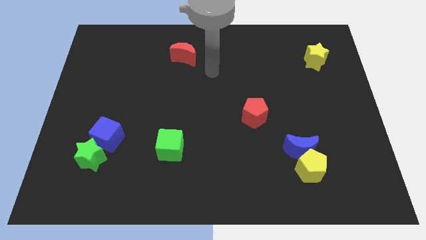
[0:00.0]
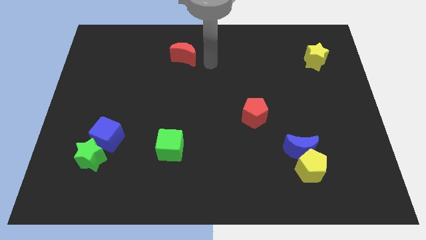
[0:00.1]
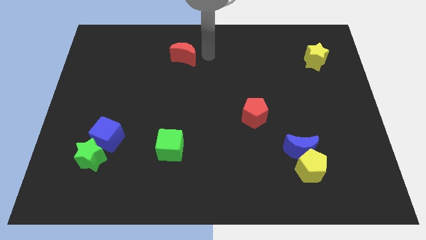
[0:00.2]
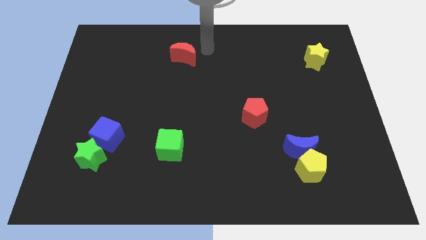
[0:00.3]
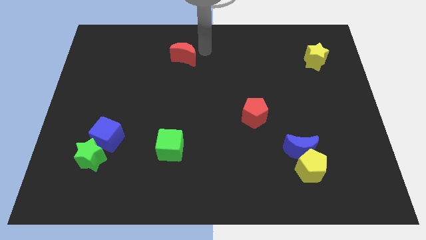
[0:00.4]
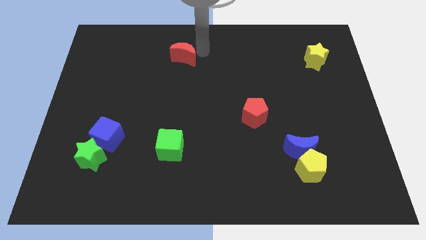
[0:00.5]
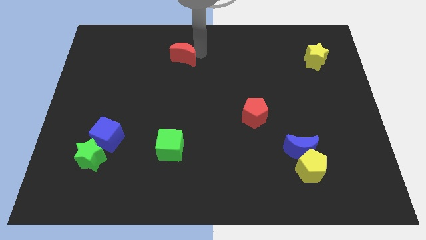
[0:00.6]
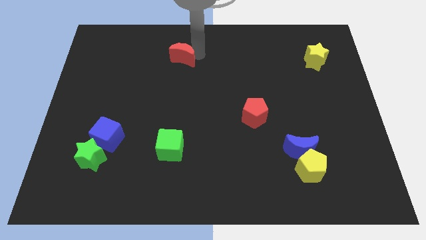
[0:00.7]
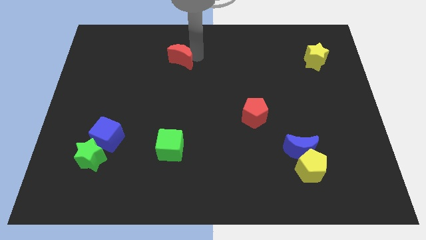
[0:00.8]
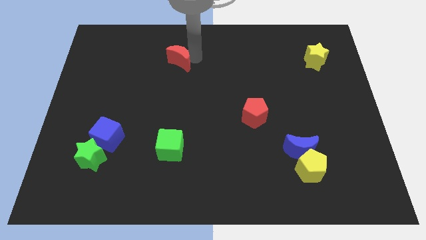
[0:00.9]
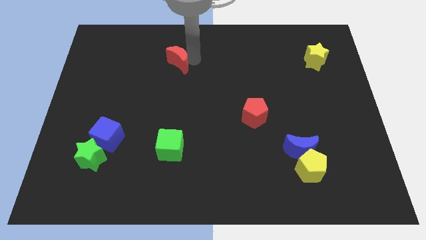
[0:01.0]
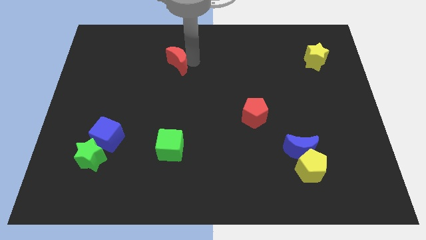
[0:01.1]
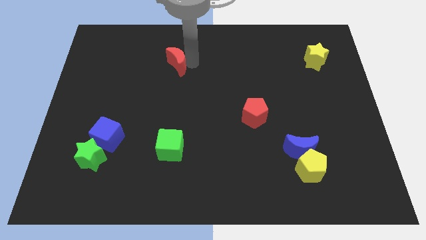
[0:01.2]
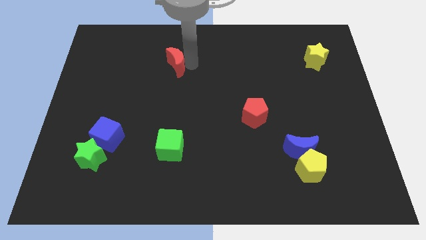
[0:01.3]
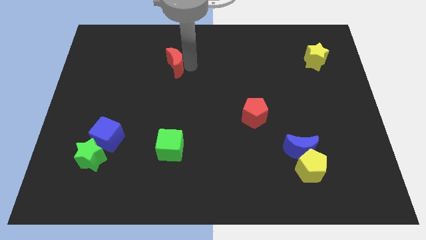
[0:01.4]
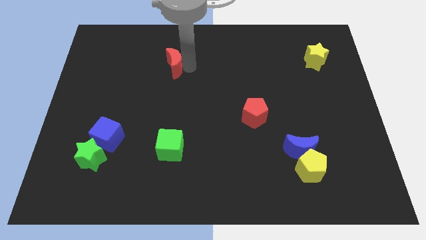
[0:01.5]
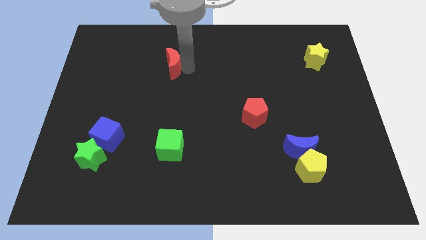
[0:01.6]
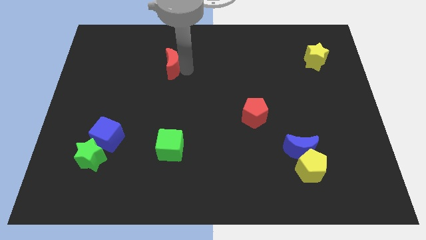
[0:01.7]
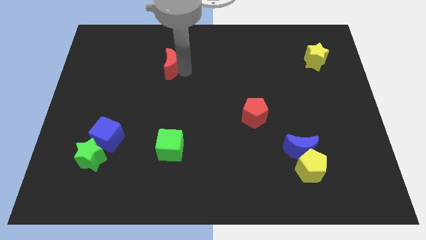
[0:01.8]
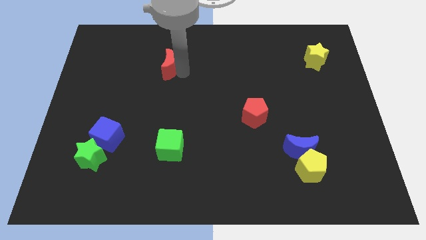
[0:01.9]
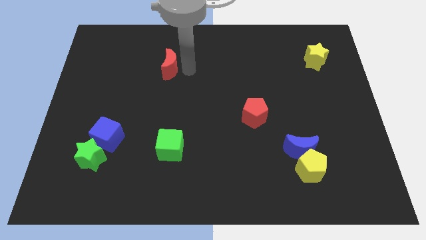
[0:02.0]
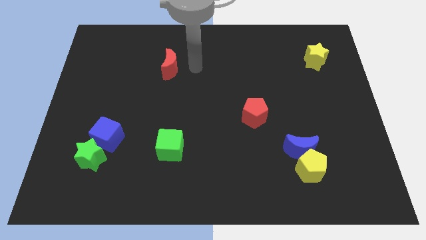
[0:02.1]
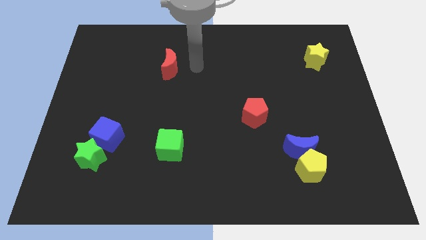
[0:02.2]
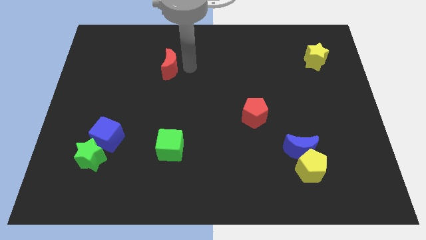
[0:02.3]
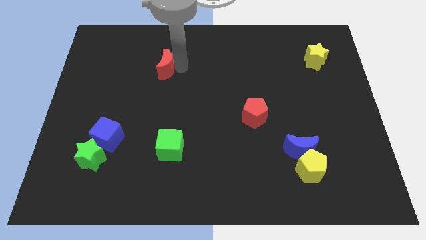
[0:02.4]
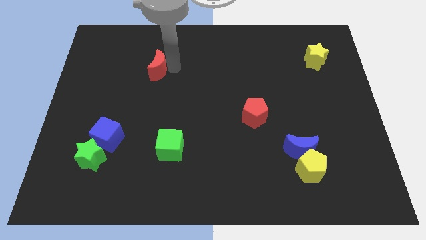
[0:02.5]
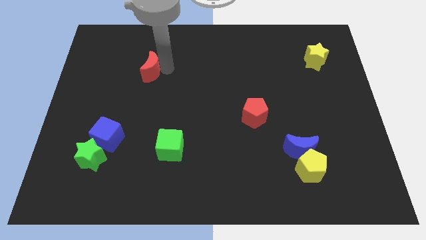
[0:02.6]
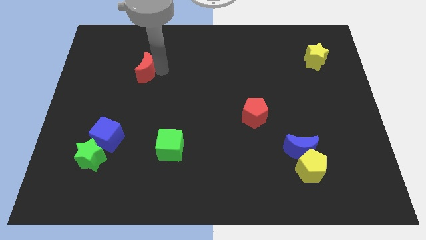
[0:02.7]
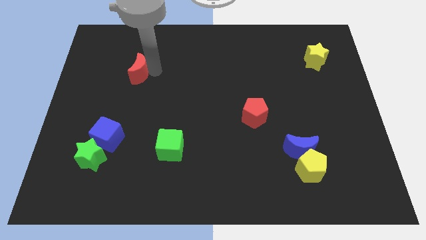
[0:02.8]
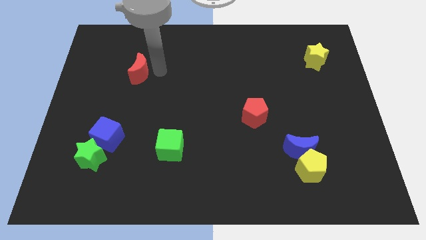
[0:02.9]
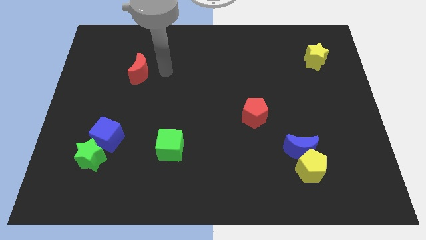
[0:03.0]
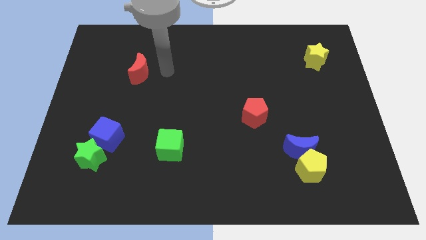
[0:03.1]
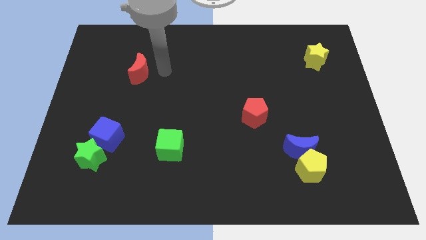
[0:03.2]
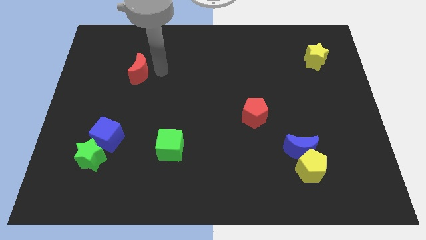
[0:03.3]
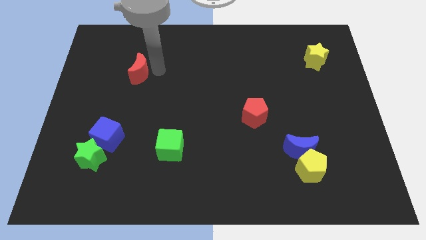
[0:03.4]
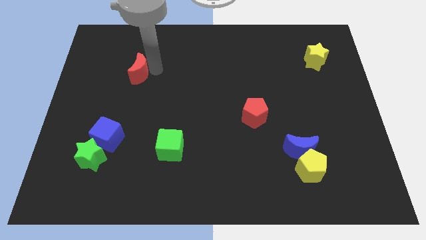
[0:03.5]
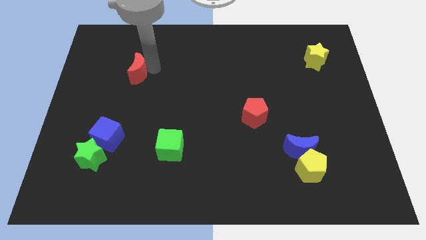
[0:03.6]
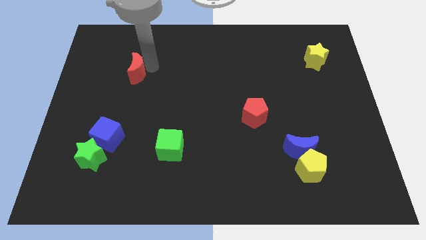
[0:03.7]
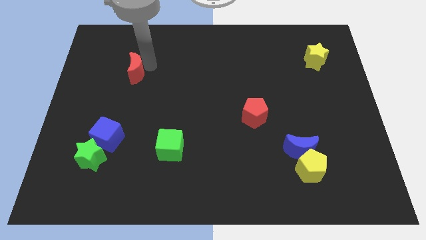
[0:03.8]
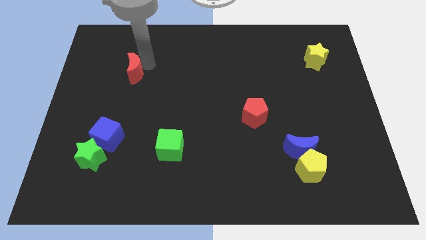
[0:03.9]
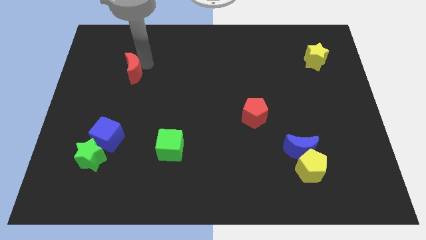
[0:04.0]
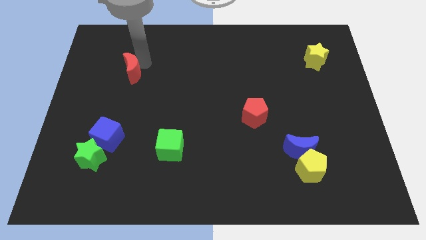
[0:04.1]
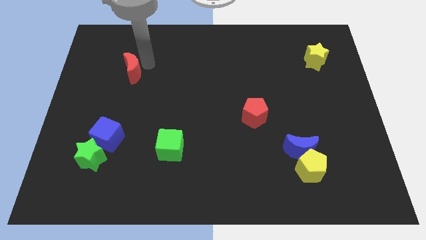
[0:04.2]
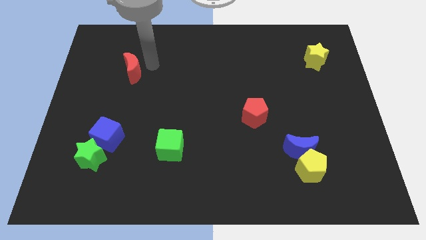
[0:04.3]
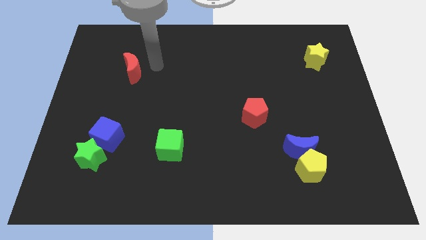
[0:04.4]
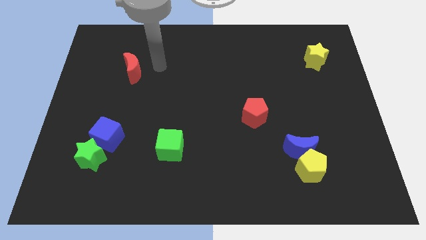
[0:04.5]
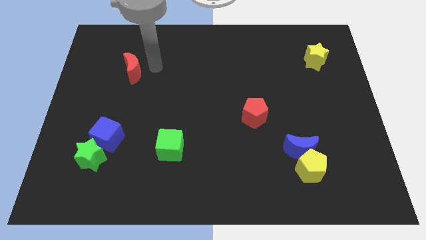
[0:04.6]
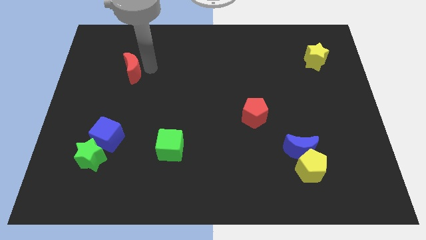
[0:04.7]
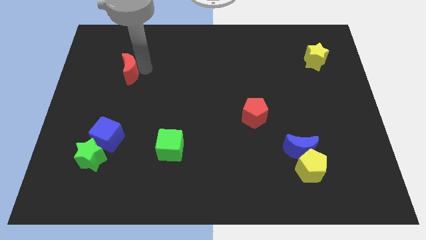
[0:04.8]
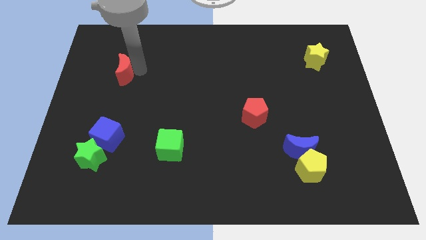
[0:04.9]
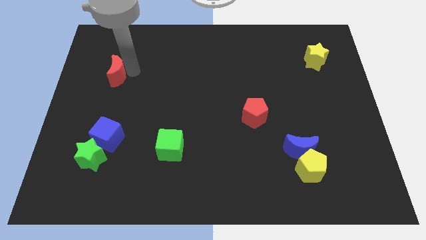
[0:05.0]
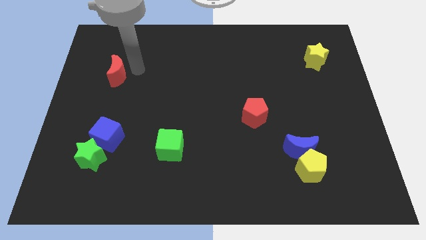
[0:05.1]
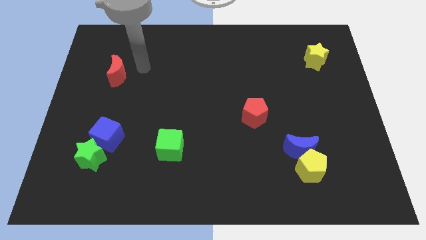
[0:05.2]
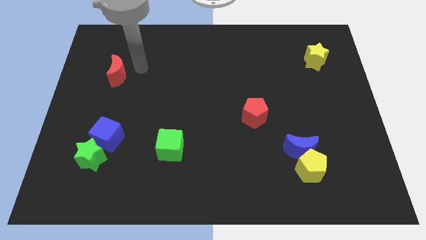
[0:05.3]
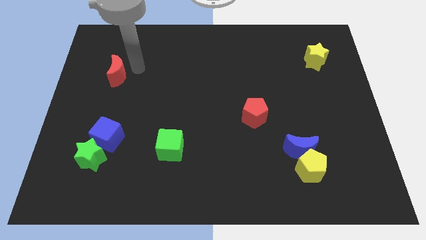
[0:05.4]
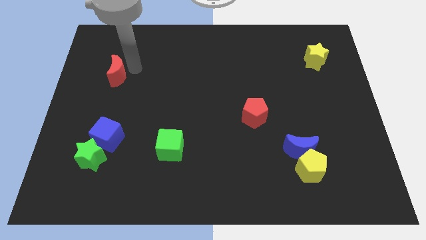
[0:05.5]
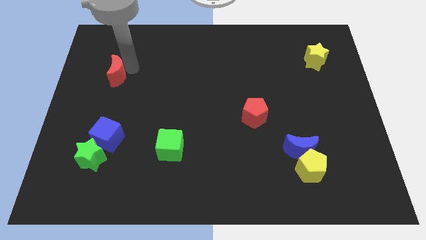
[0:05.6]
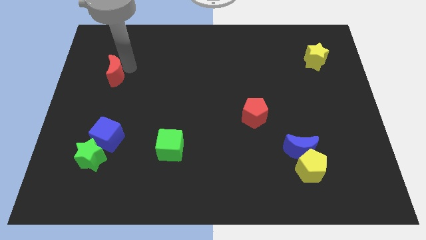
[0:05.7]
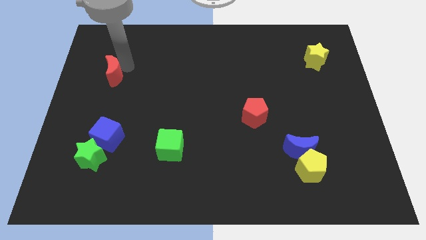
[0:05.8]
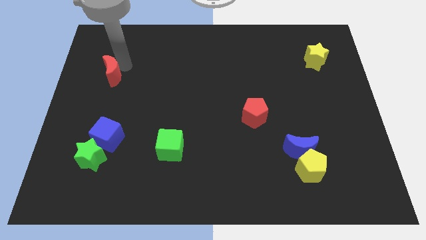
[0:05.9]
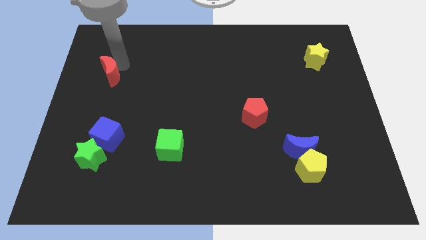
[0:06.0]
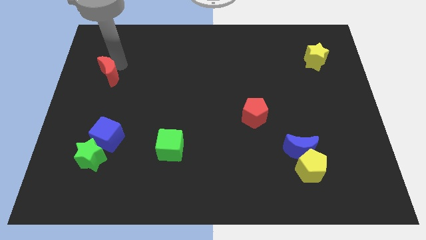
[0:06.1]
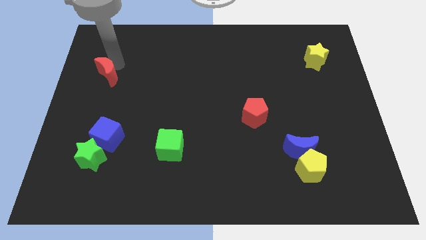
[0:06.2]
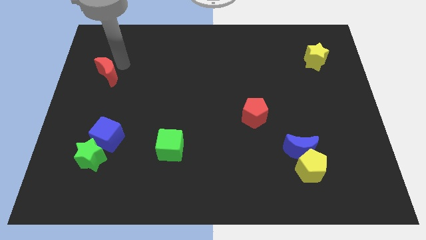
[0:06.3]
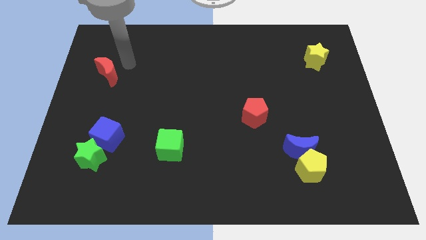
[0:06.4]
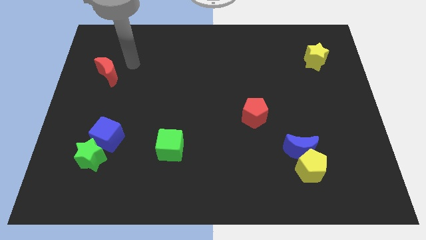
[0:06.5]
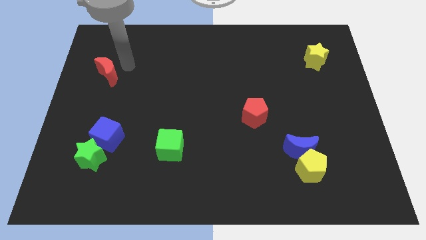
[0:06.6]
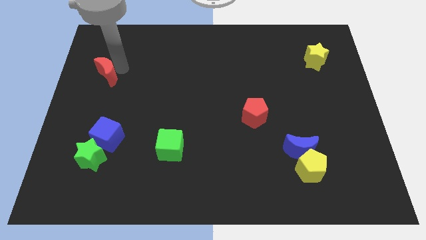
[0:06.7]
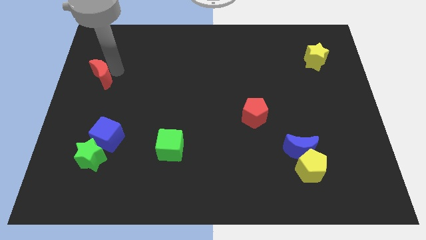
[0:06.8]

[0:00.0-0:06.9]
slide the red moon to the left side
